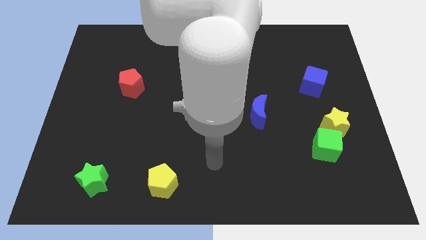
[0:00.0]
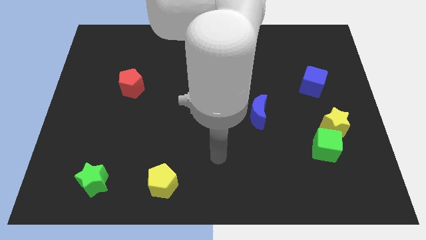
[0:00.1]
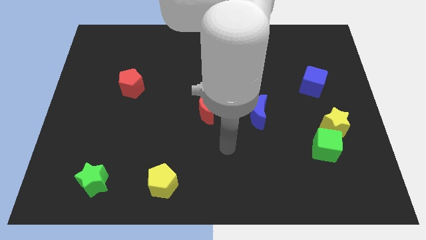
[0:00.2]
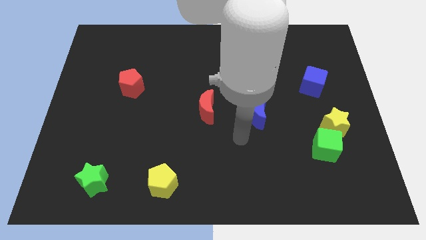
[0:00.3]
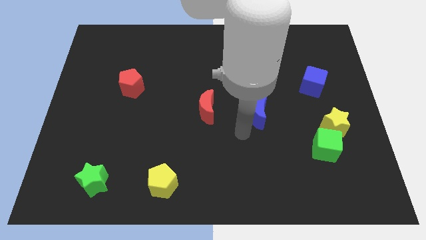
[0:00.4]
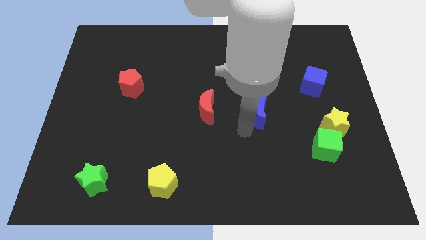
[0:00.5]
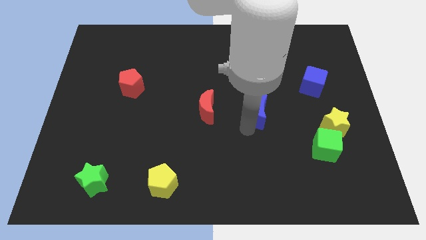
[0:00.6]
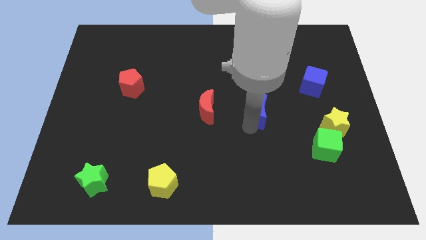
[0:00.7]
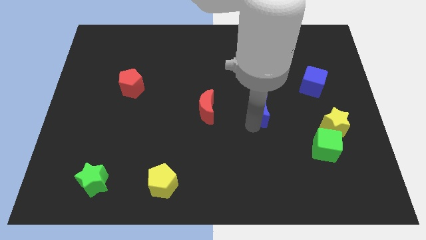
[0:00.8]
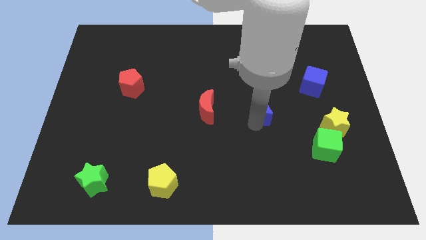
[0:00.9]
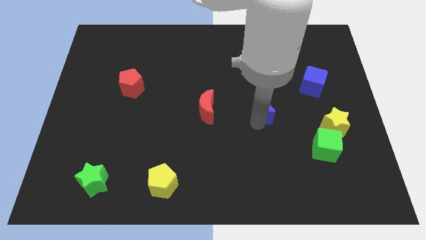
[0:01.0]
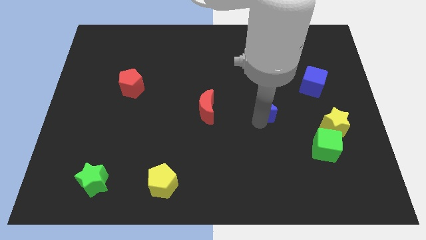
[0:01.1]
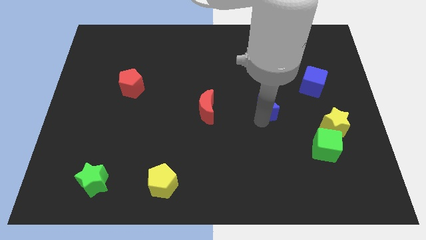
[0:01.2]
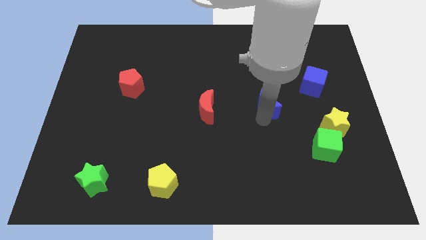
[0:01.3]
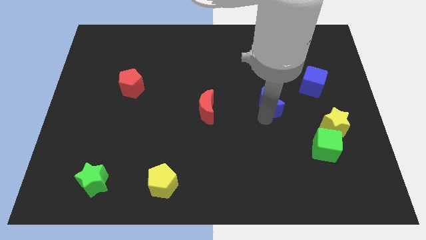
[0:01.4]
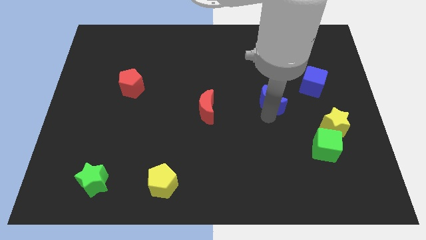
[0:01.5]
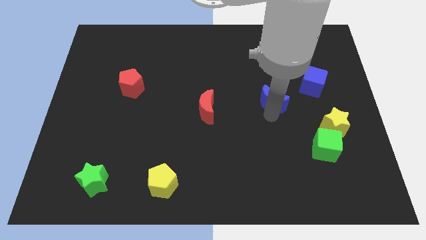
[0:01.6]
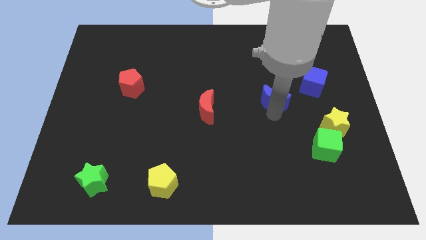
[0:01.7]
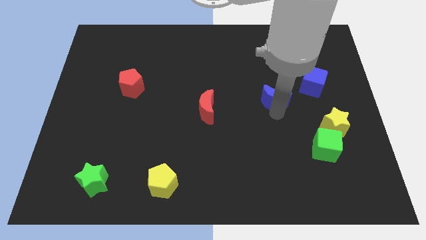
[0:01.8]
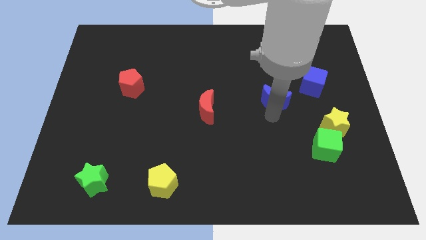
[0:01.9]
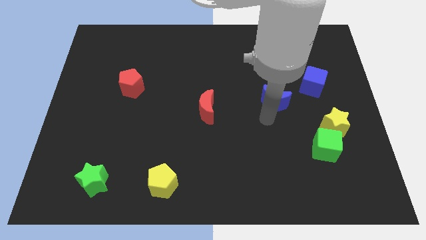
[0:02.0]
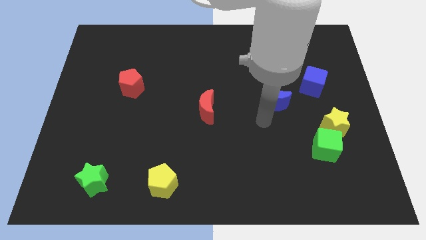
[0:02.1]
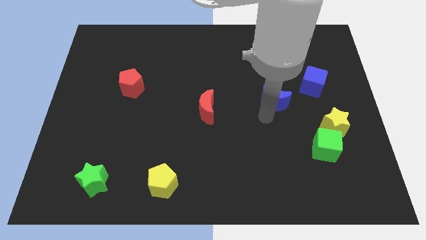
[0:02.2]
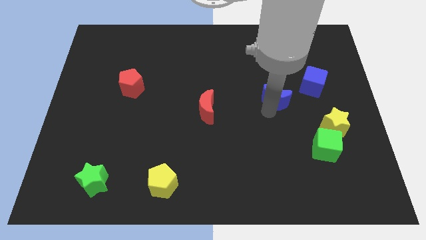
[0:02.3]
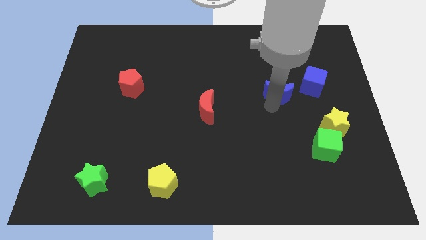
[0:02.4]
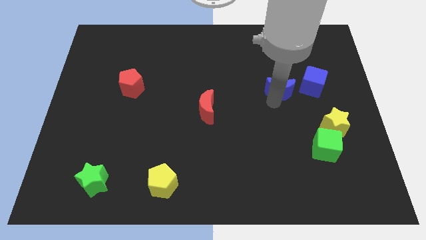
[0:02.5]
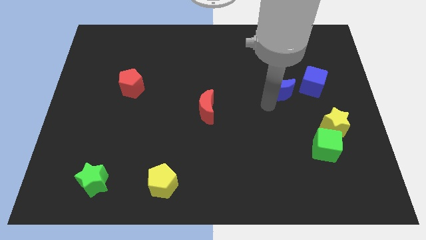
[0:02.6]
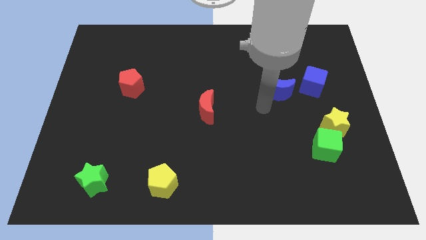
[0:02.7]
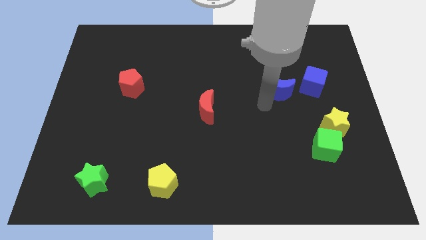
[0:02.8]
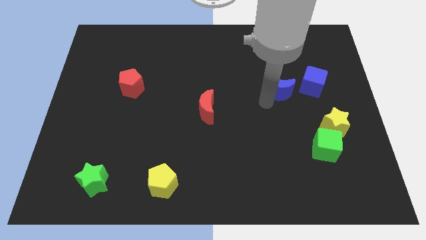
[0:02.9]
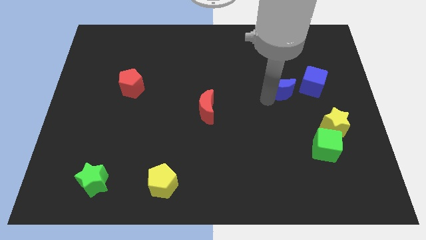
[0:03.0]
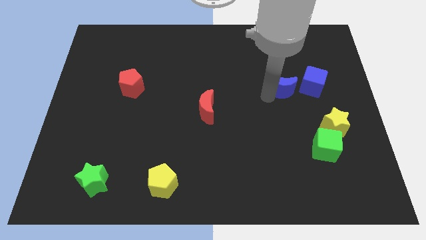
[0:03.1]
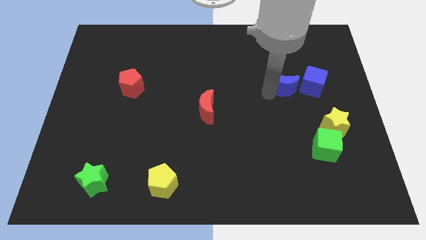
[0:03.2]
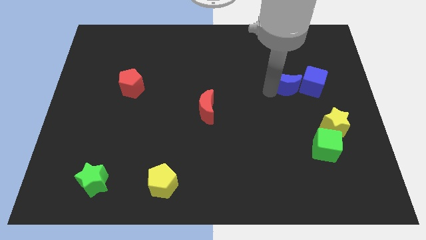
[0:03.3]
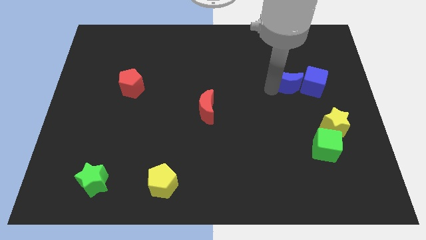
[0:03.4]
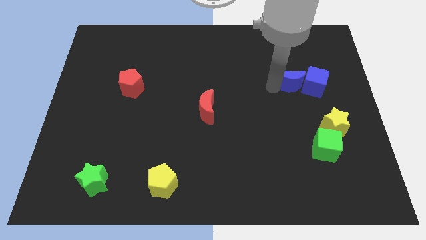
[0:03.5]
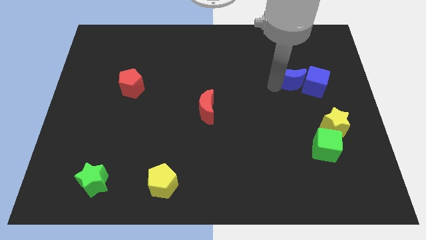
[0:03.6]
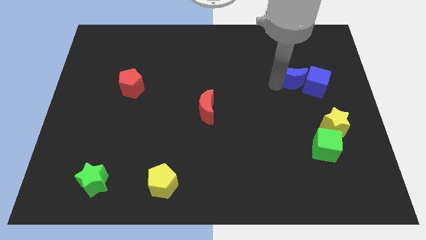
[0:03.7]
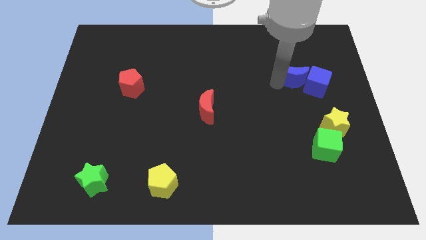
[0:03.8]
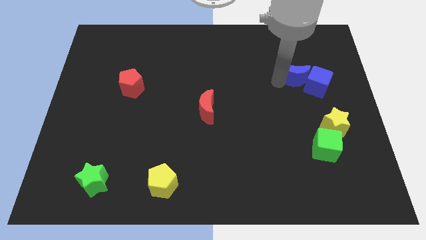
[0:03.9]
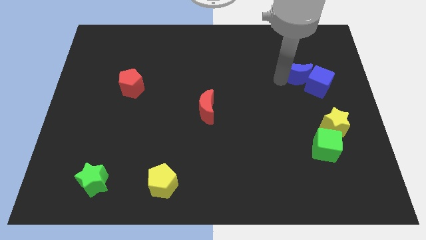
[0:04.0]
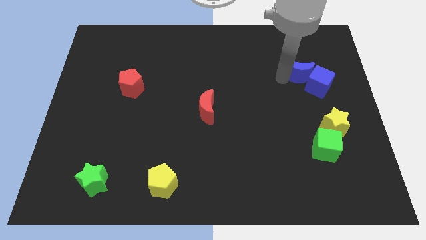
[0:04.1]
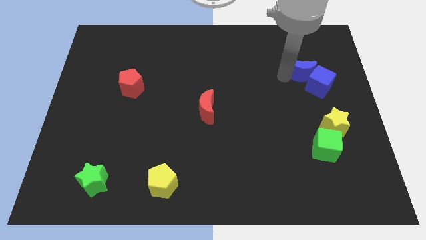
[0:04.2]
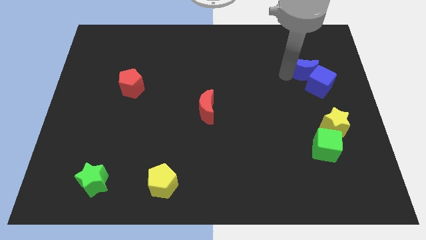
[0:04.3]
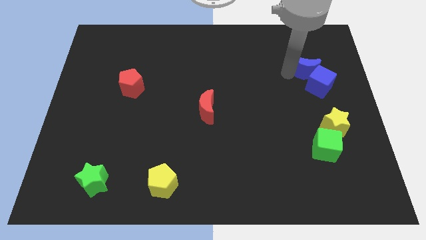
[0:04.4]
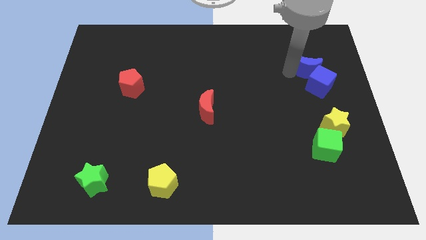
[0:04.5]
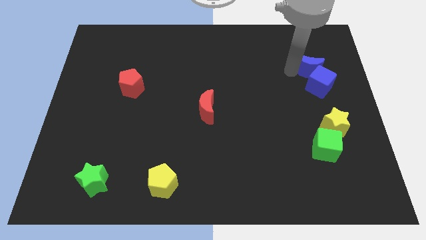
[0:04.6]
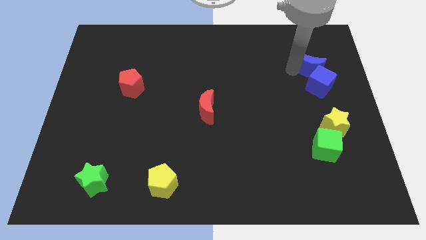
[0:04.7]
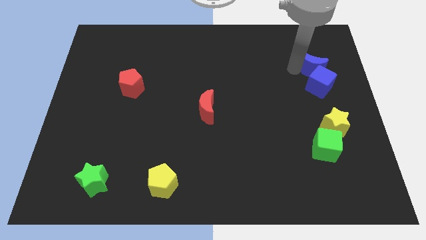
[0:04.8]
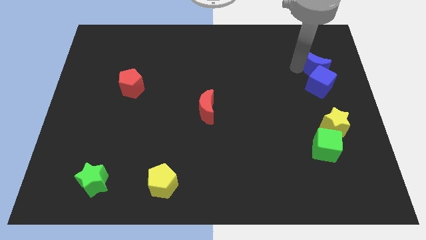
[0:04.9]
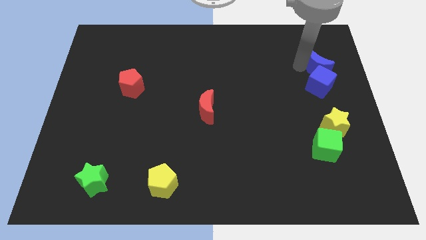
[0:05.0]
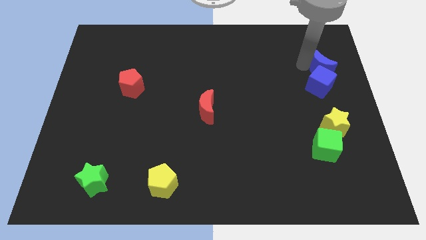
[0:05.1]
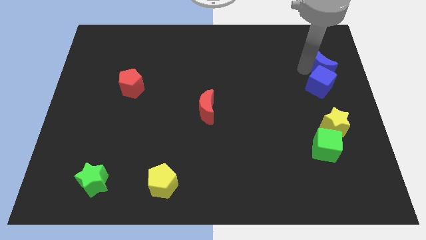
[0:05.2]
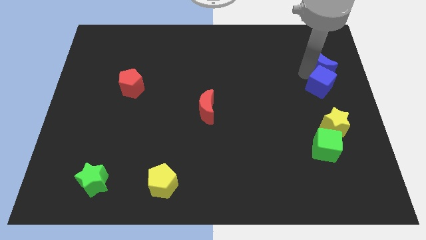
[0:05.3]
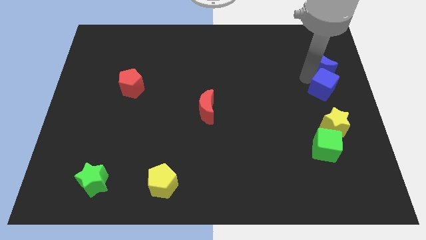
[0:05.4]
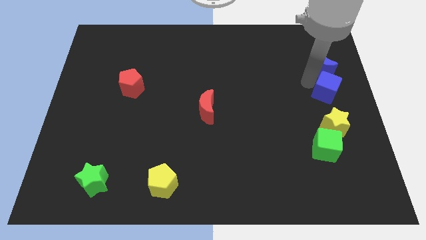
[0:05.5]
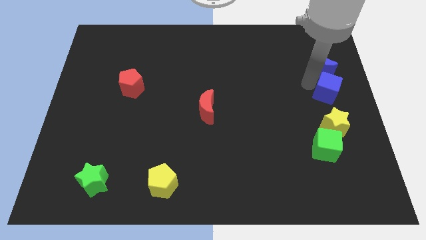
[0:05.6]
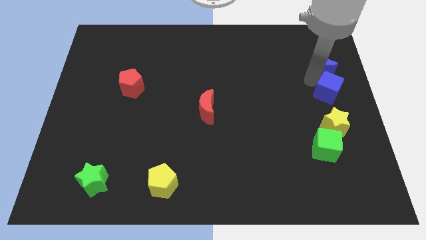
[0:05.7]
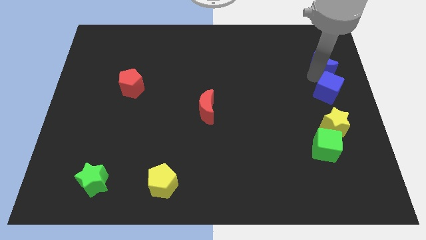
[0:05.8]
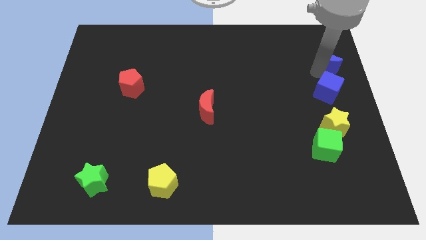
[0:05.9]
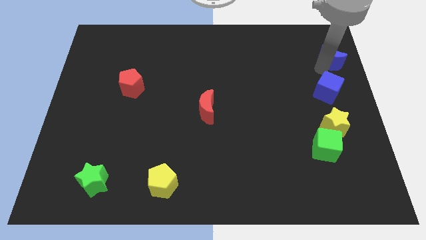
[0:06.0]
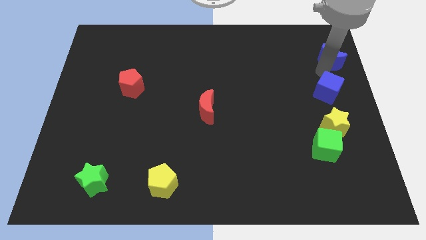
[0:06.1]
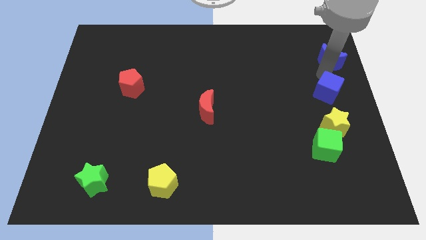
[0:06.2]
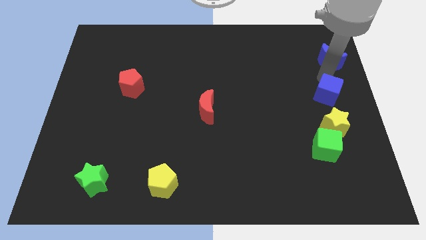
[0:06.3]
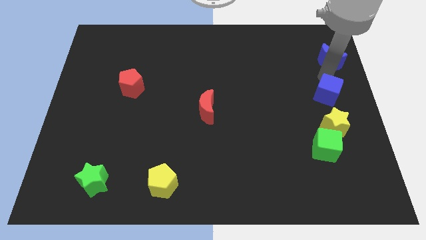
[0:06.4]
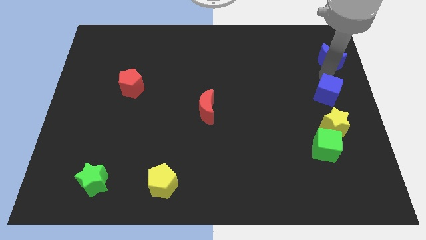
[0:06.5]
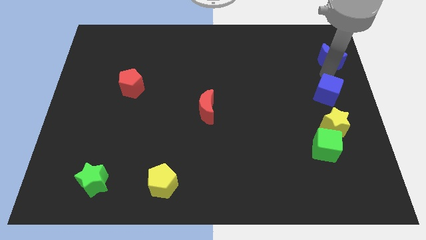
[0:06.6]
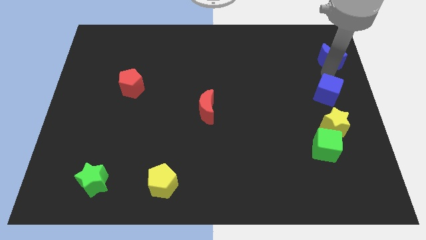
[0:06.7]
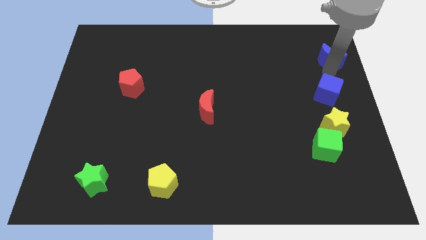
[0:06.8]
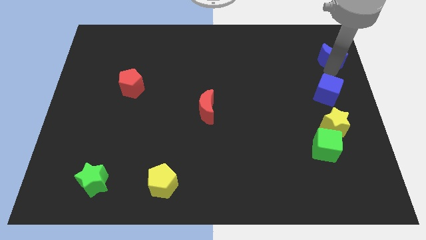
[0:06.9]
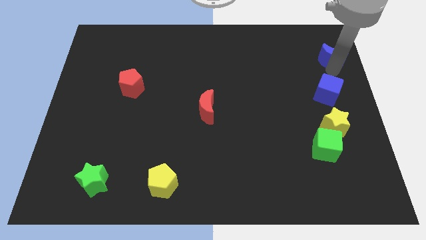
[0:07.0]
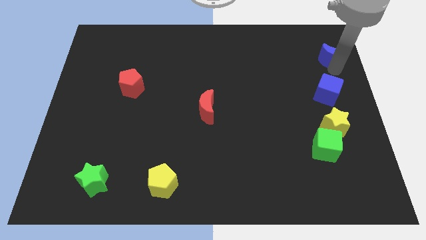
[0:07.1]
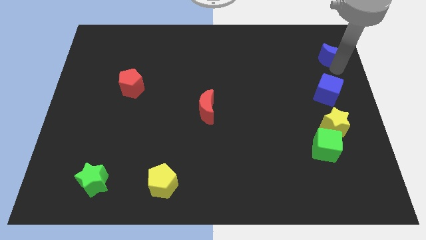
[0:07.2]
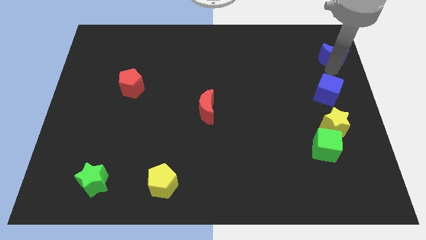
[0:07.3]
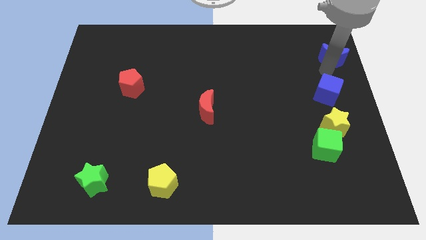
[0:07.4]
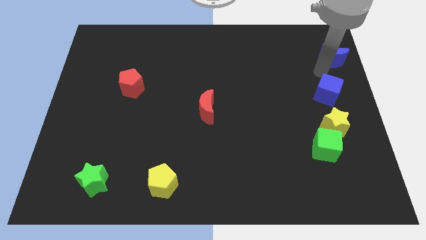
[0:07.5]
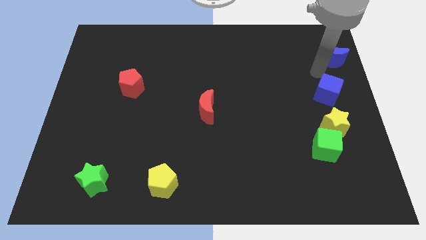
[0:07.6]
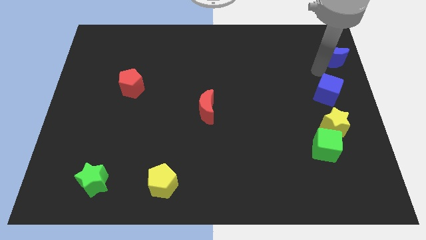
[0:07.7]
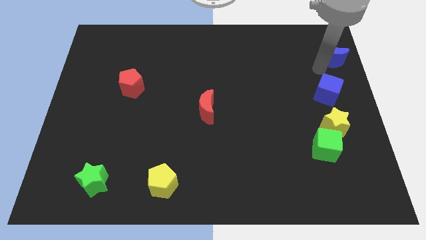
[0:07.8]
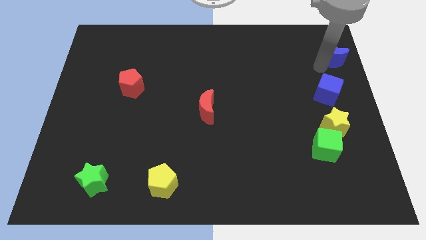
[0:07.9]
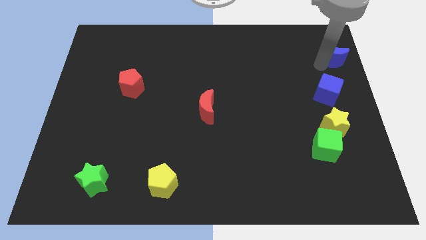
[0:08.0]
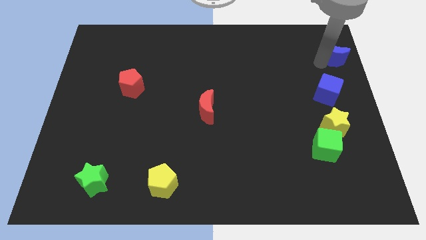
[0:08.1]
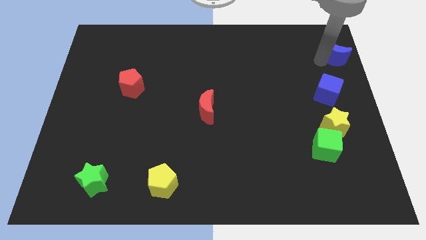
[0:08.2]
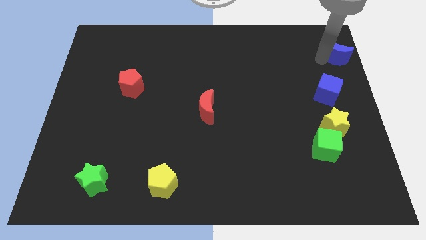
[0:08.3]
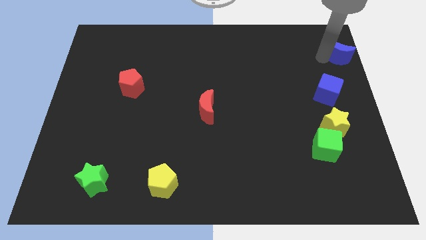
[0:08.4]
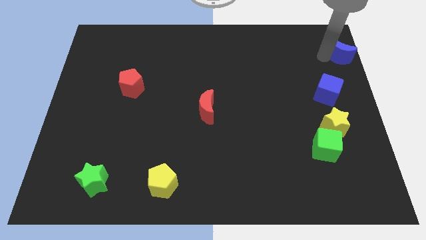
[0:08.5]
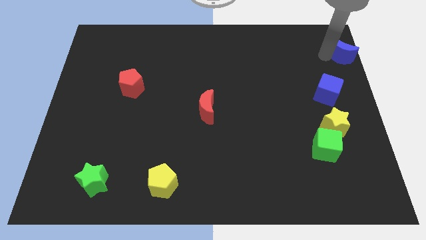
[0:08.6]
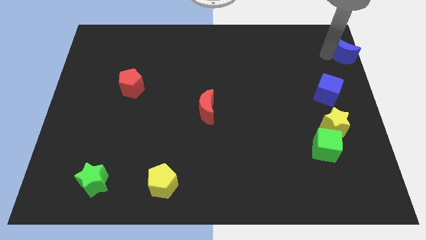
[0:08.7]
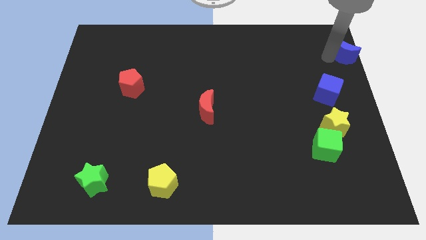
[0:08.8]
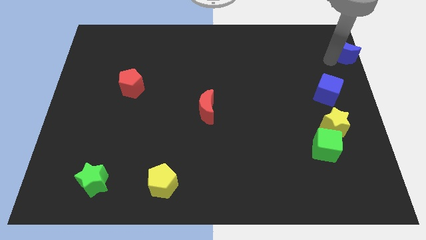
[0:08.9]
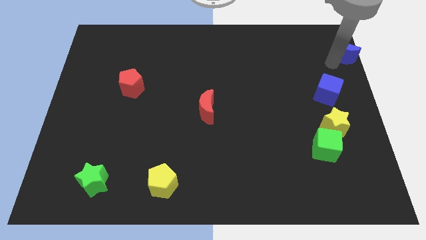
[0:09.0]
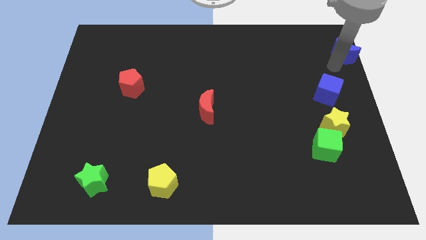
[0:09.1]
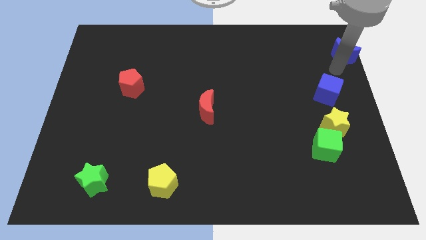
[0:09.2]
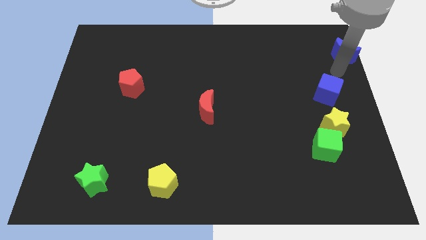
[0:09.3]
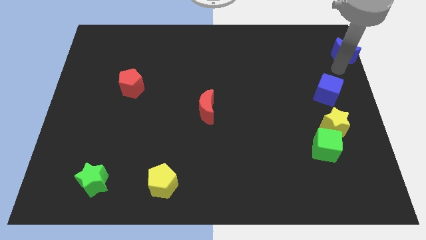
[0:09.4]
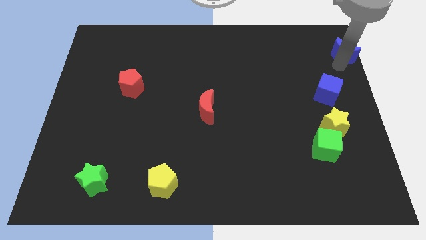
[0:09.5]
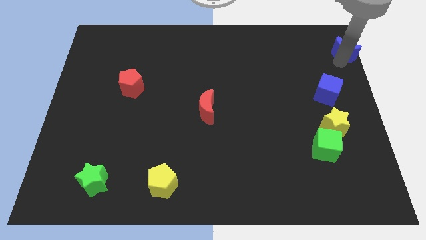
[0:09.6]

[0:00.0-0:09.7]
push the blue moon to the upper right corner
